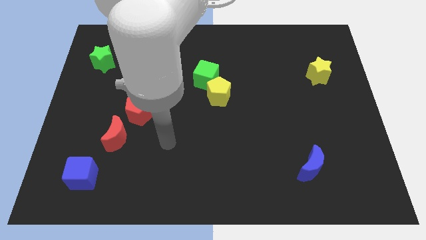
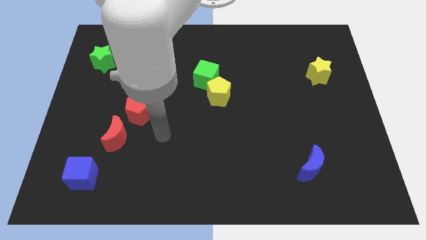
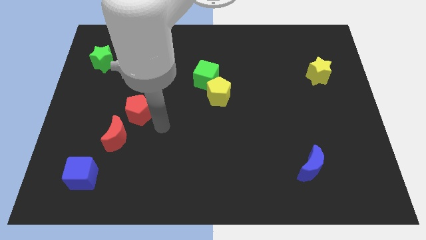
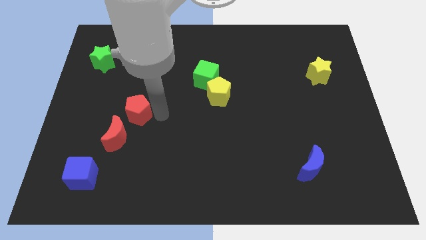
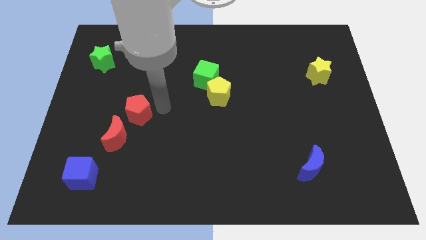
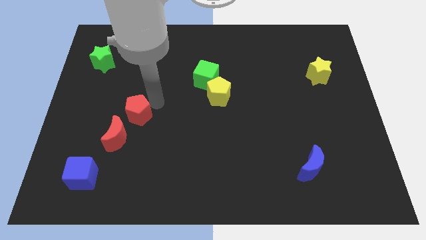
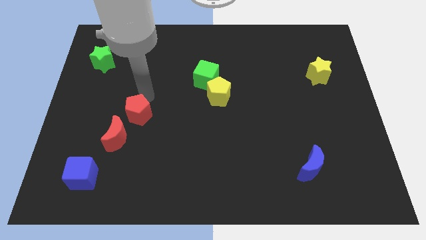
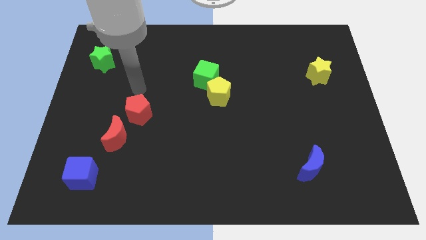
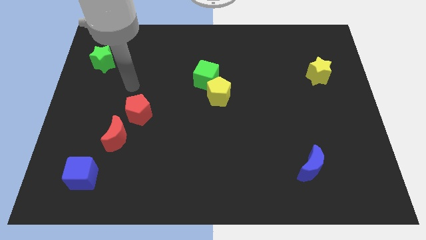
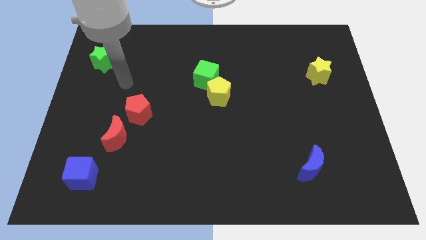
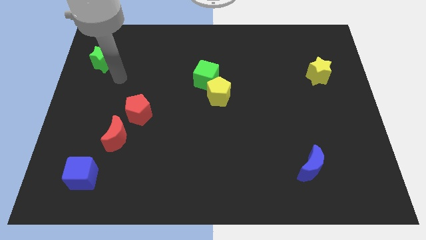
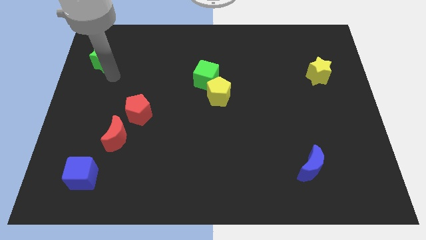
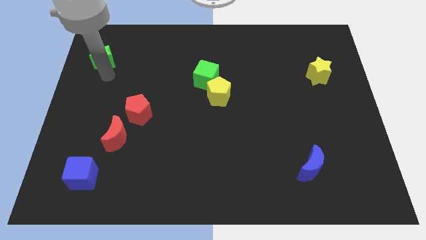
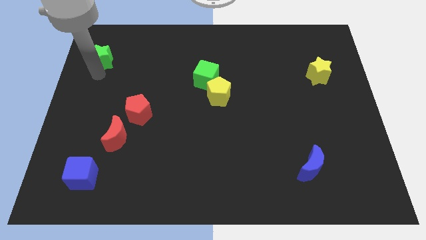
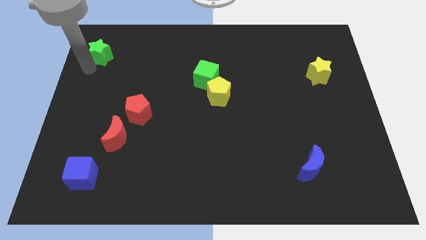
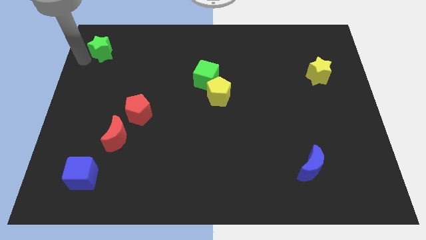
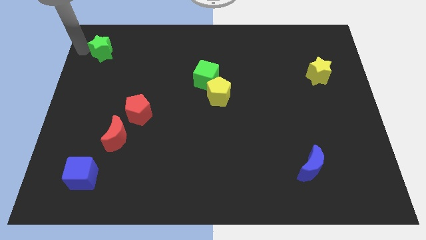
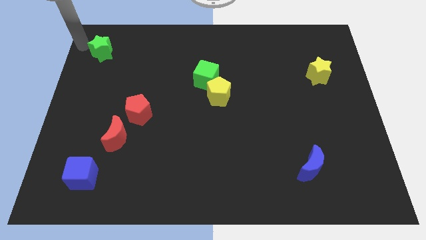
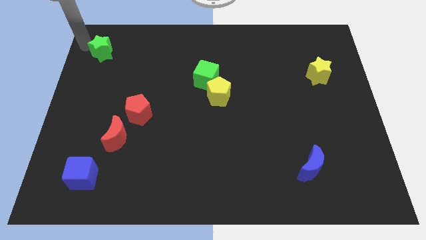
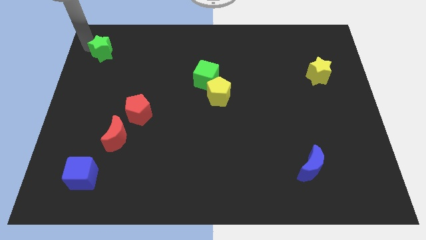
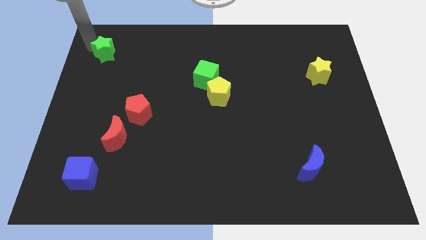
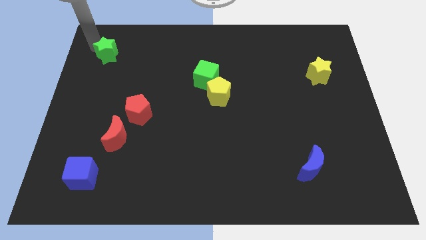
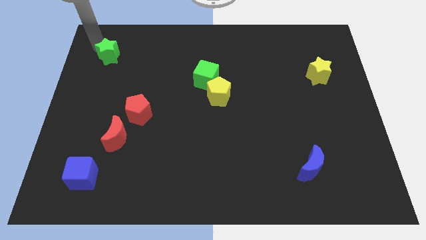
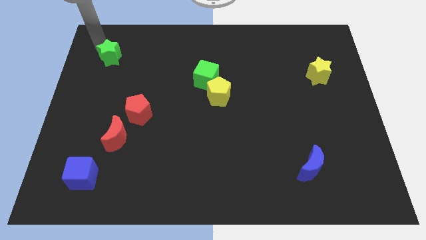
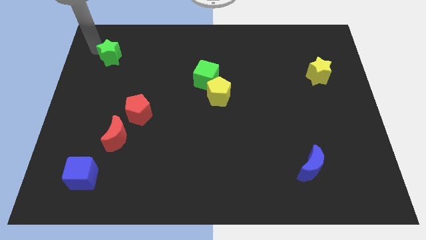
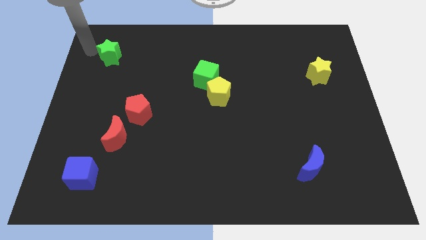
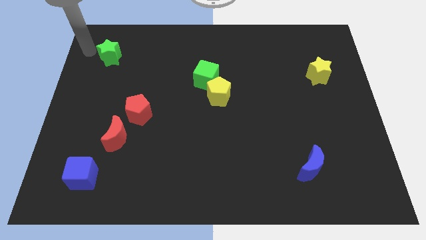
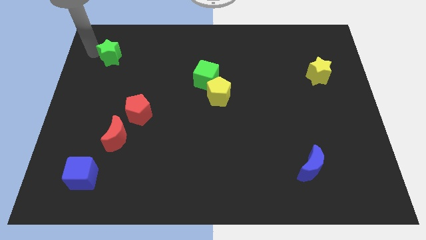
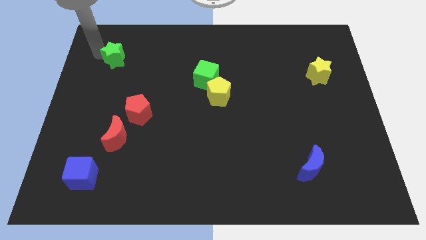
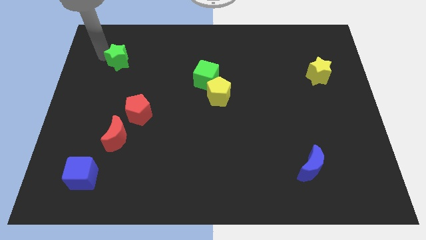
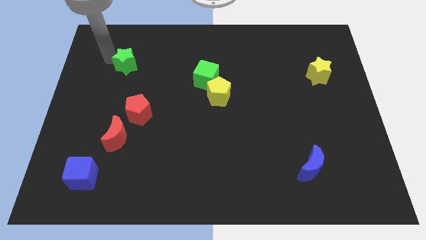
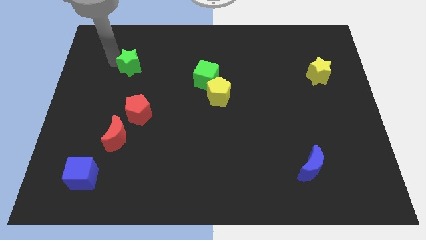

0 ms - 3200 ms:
slightly move the green star to the right

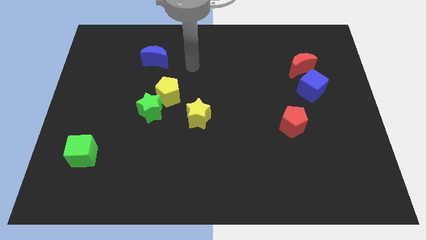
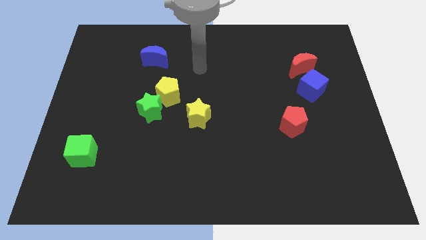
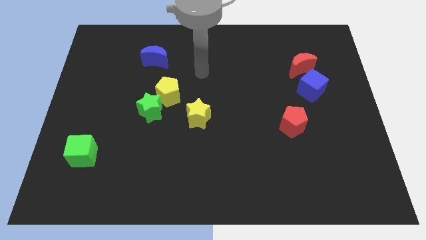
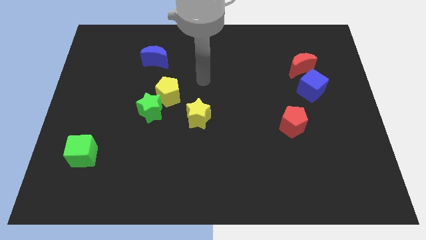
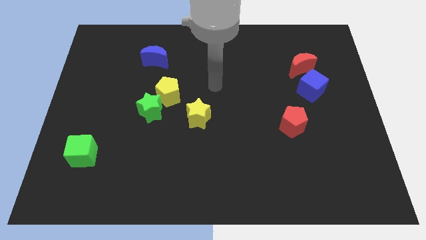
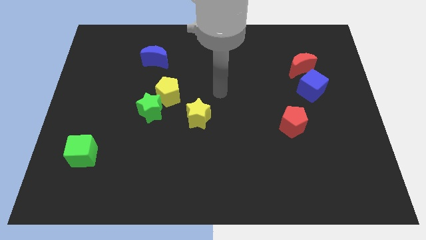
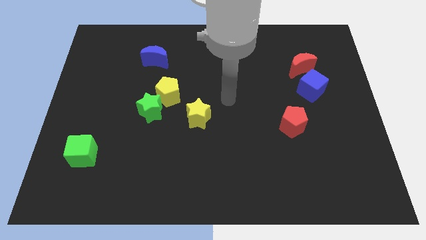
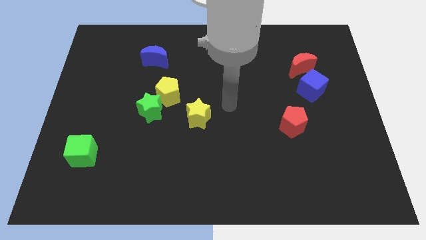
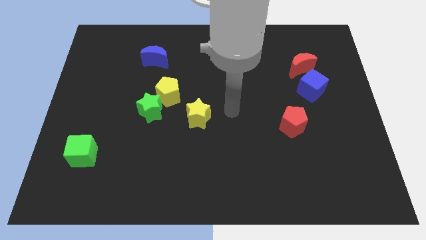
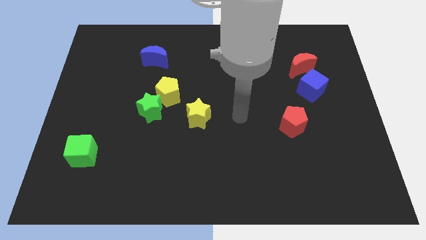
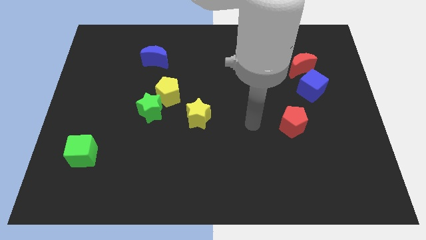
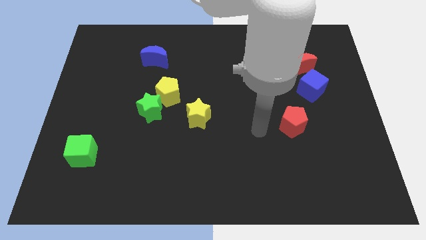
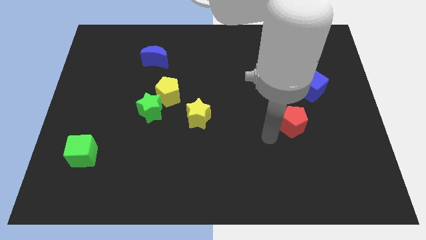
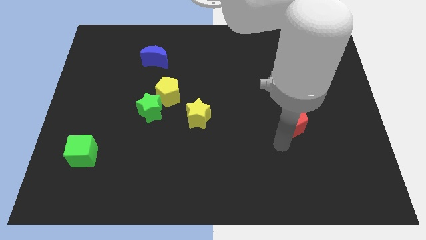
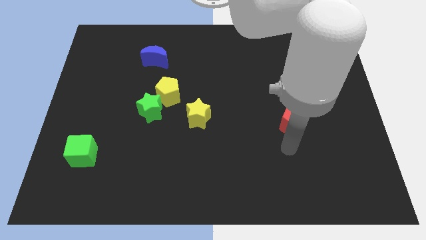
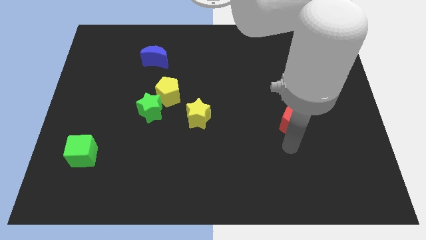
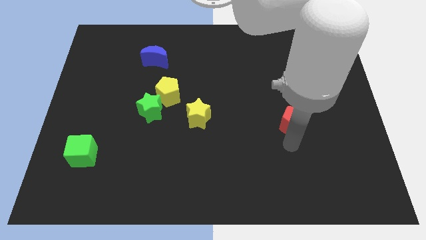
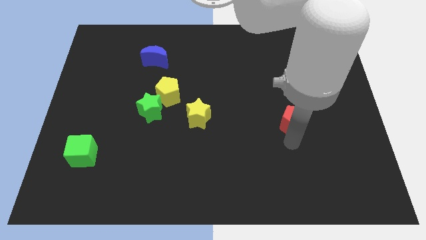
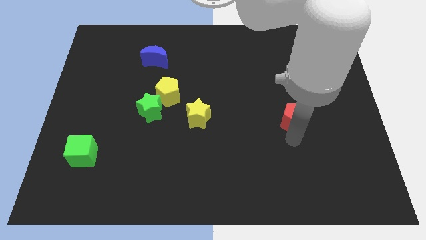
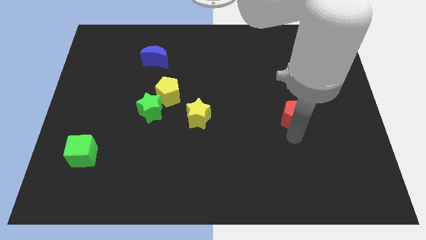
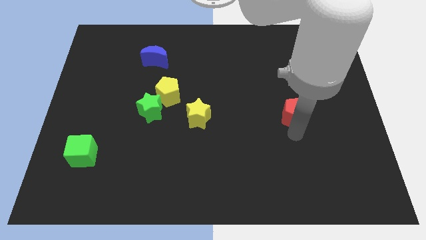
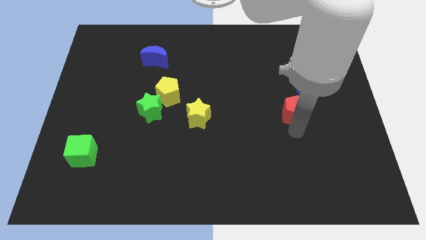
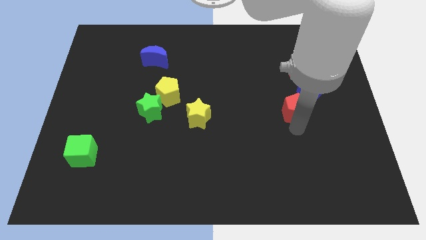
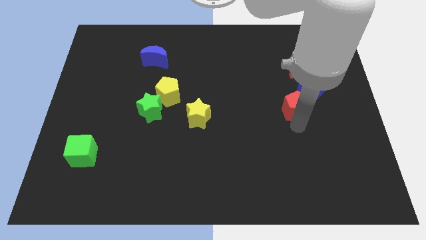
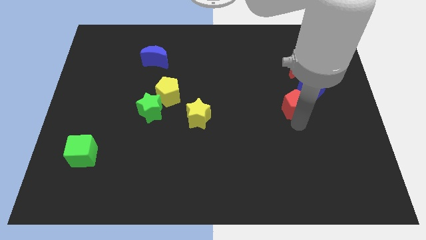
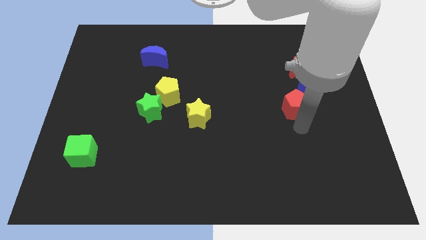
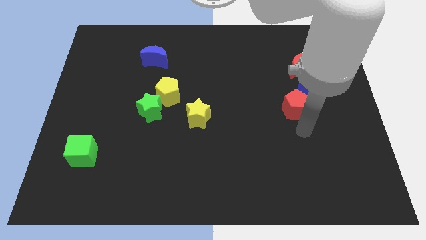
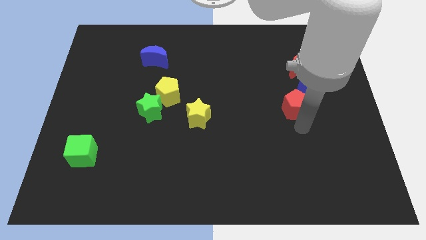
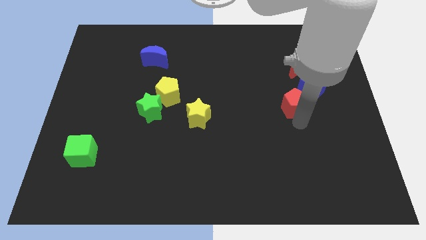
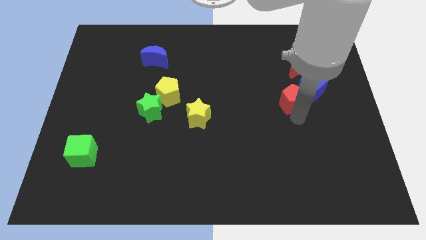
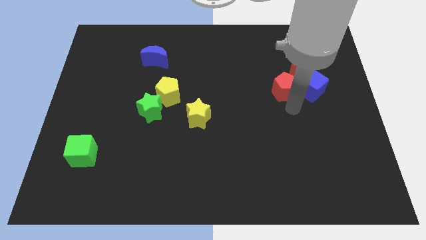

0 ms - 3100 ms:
slightly push the red pentagon up

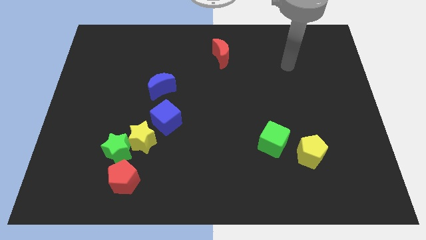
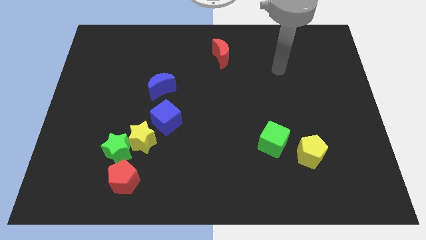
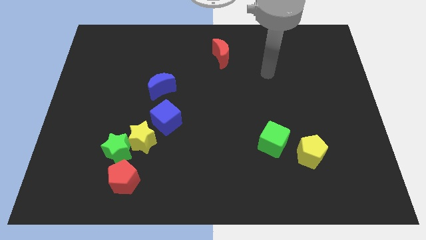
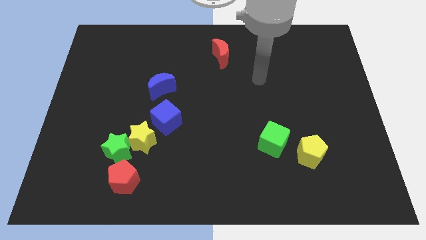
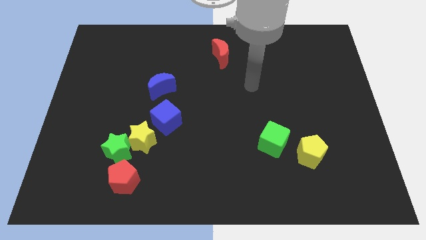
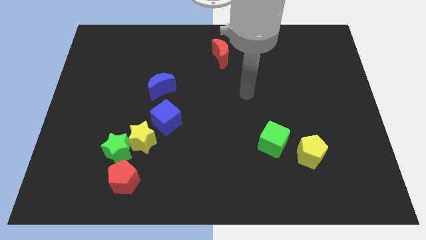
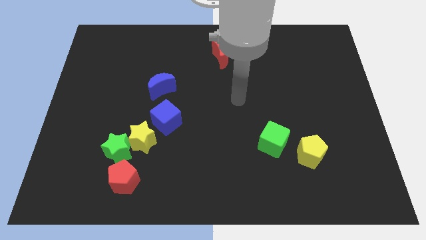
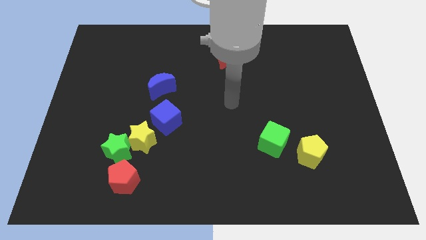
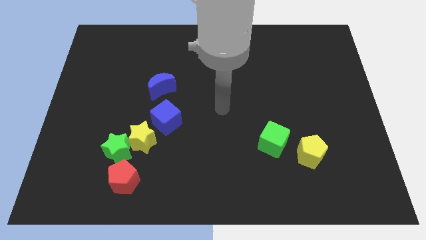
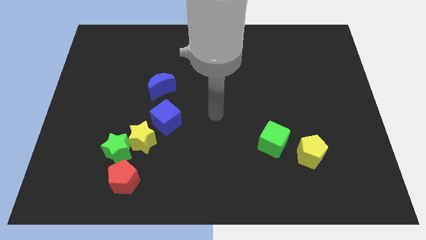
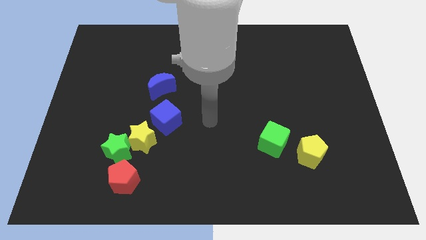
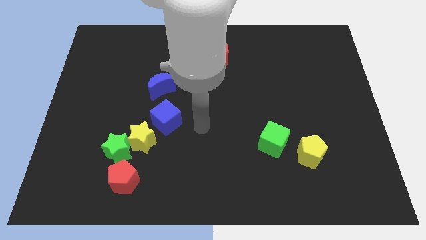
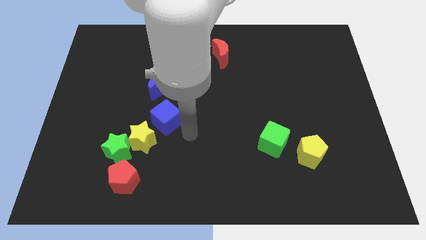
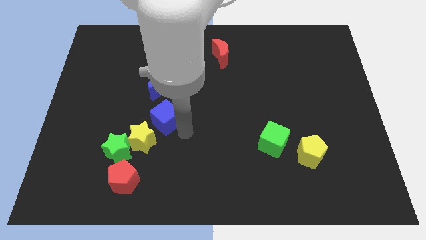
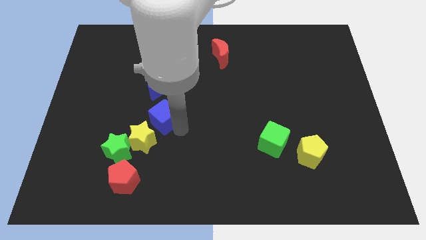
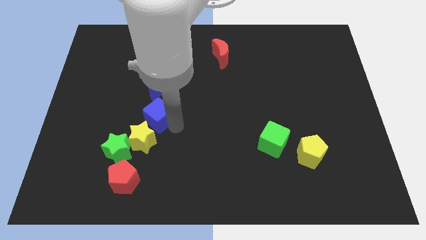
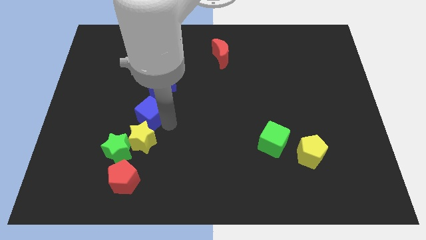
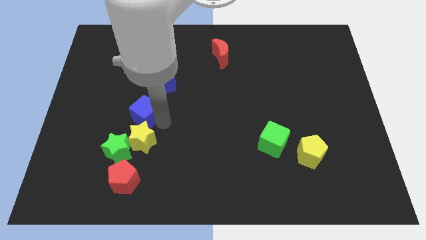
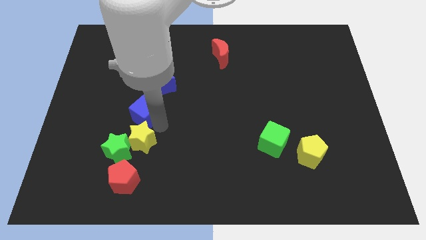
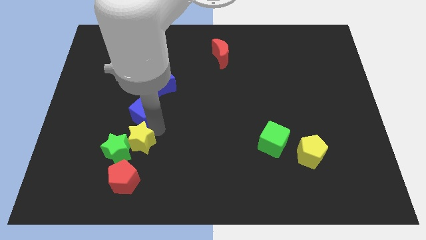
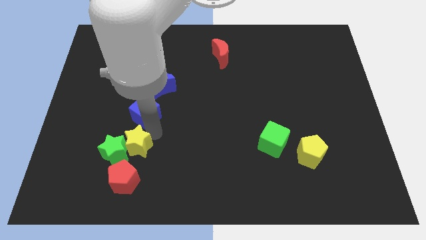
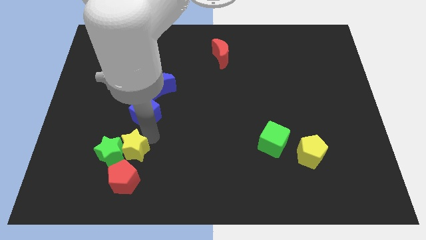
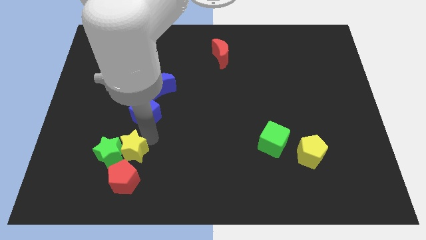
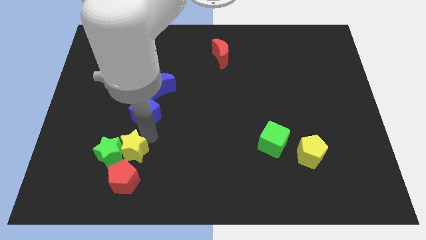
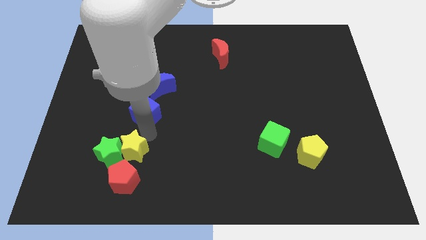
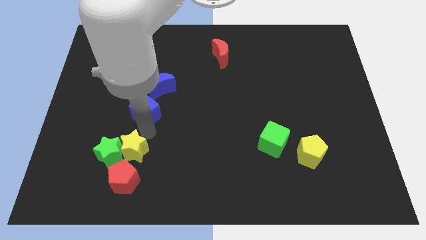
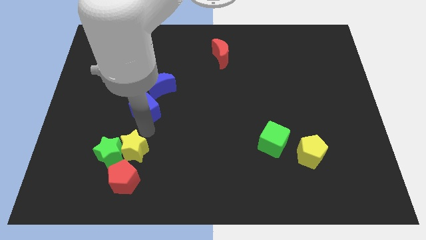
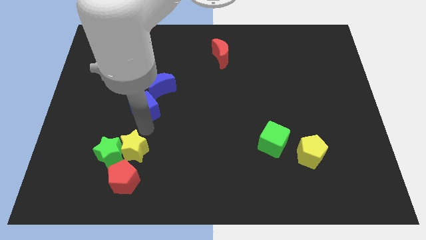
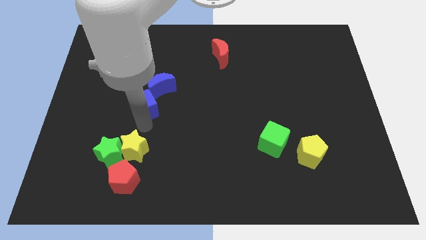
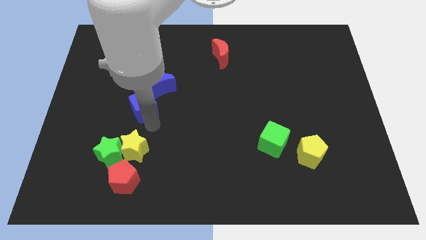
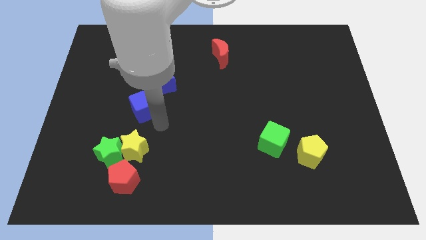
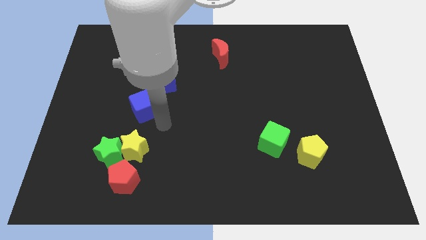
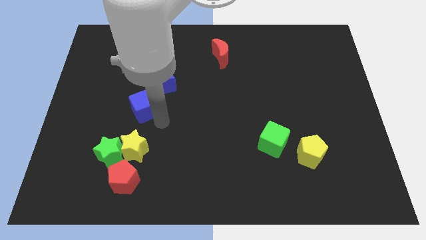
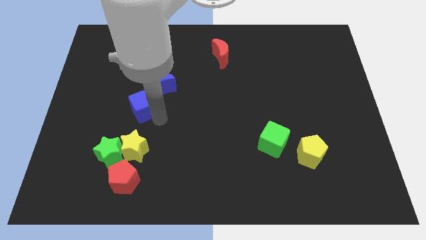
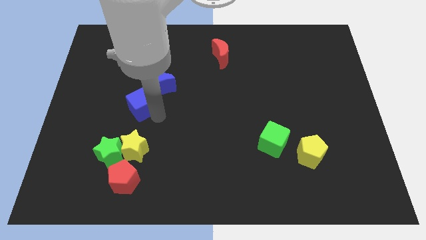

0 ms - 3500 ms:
push the blue cube a little bit upwards and left diagonally
